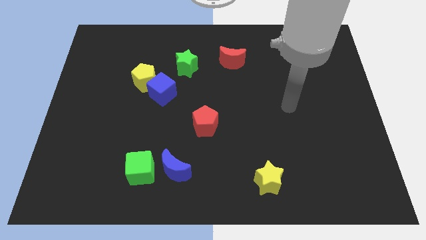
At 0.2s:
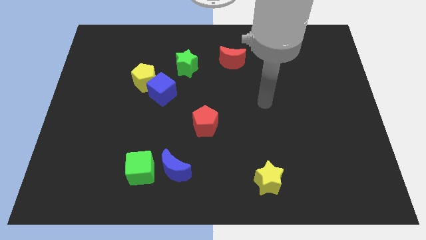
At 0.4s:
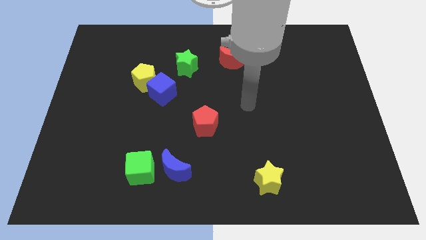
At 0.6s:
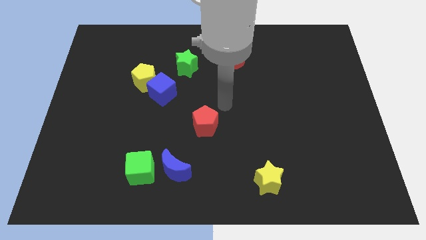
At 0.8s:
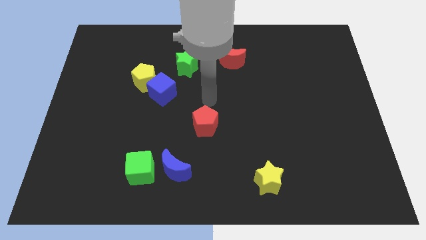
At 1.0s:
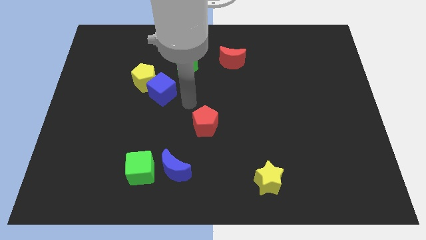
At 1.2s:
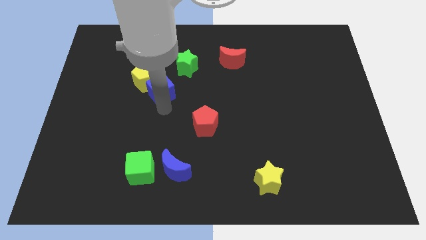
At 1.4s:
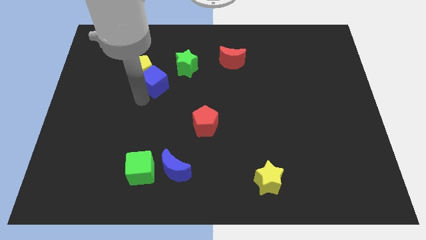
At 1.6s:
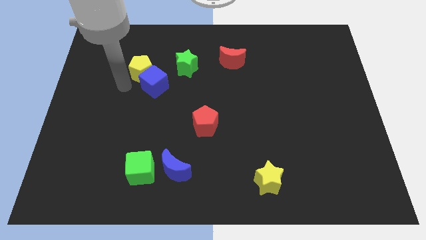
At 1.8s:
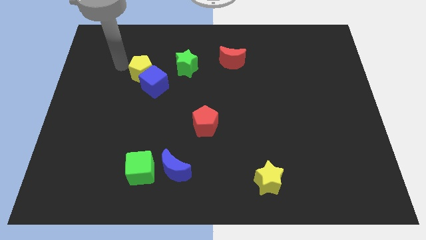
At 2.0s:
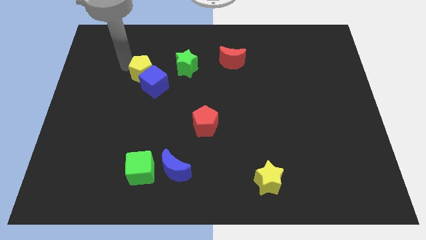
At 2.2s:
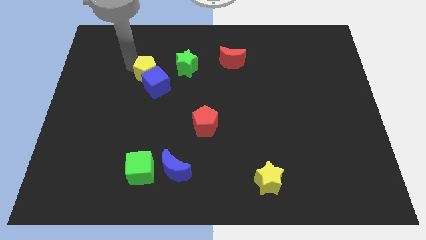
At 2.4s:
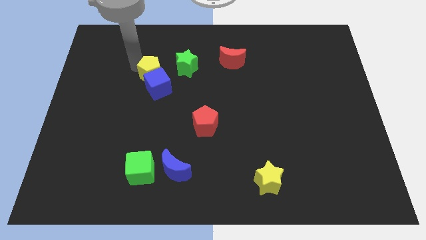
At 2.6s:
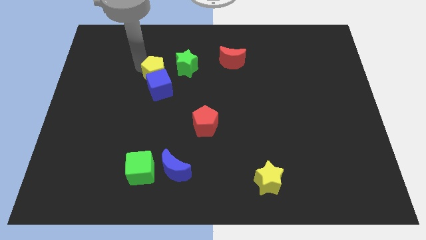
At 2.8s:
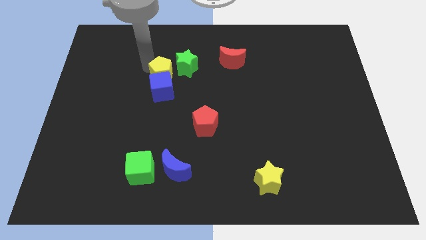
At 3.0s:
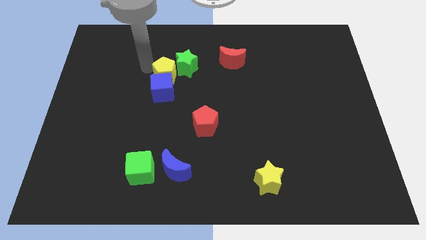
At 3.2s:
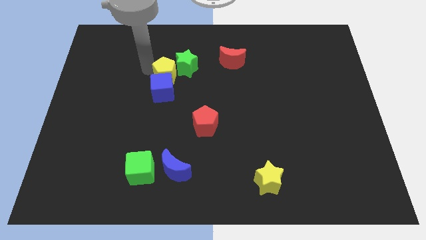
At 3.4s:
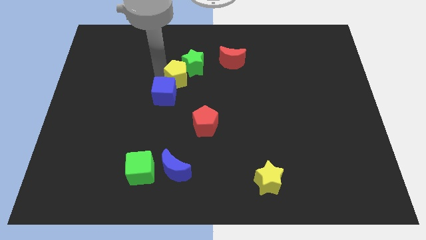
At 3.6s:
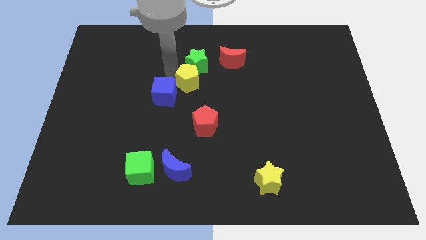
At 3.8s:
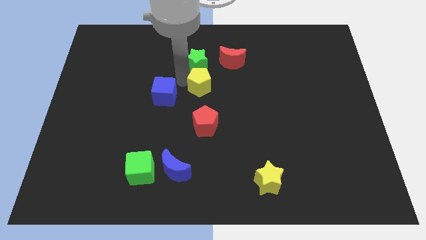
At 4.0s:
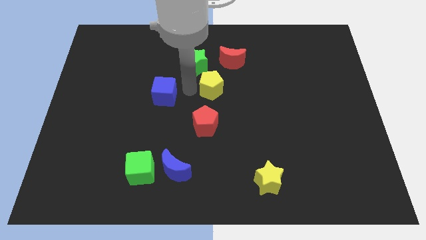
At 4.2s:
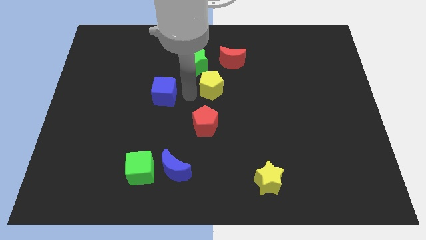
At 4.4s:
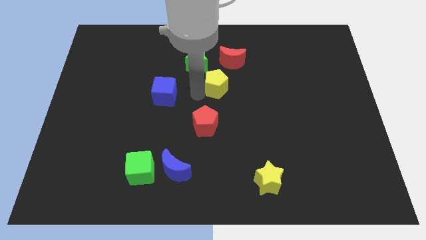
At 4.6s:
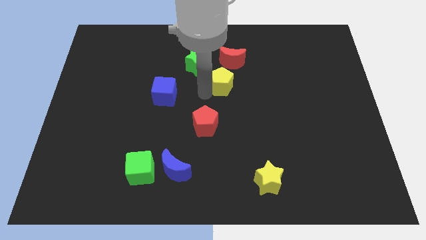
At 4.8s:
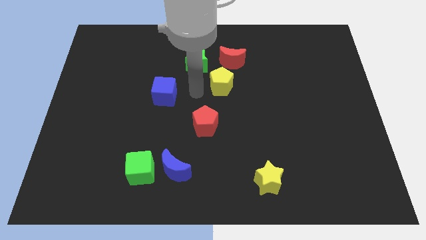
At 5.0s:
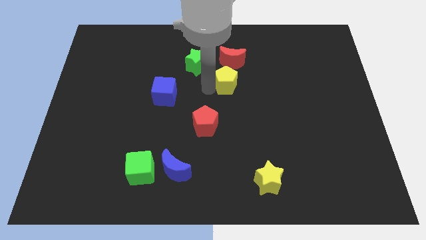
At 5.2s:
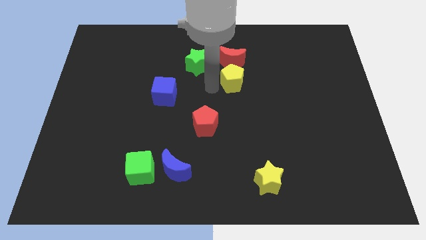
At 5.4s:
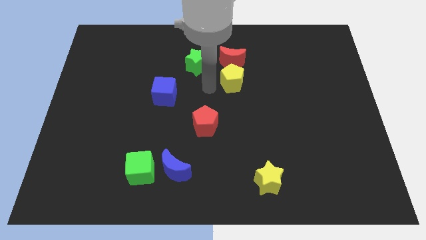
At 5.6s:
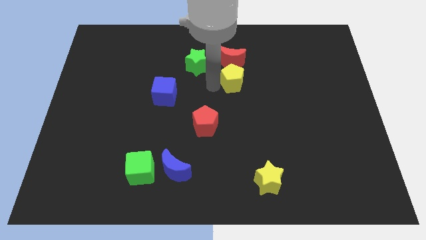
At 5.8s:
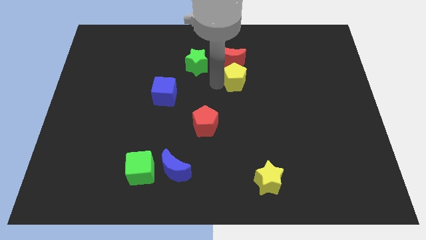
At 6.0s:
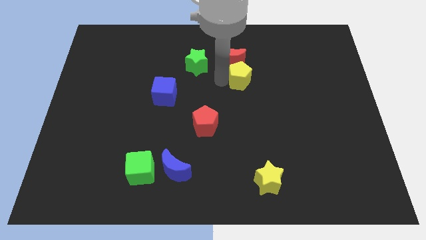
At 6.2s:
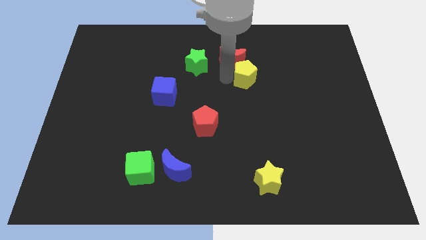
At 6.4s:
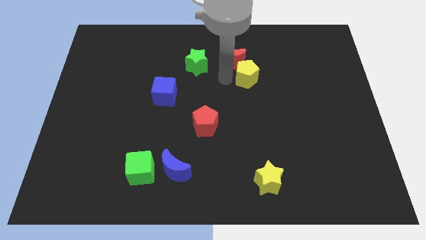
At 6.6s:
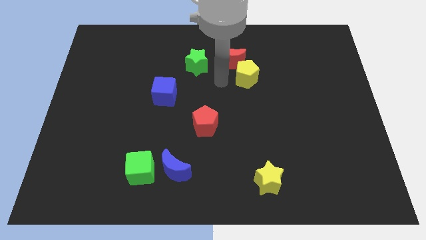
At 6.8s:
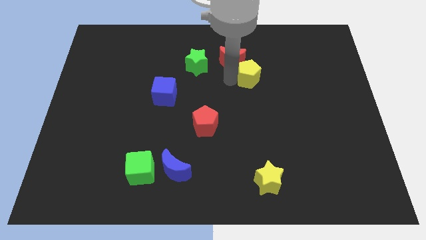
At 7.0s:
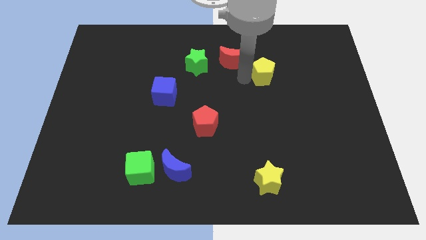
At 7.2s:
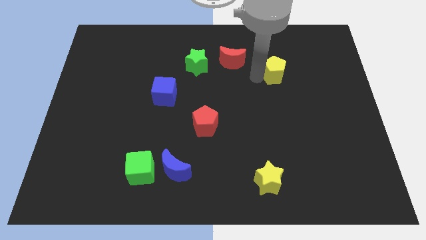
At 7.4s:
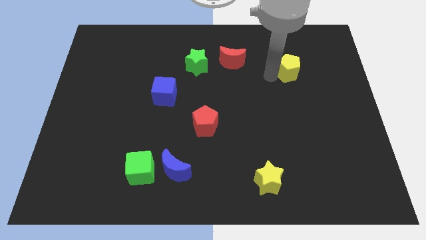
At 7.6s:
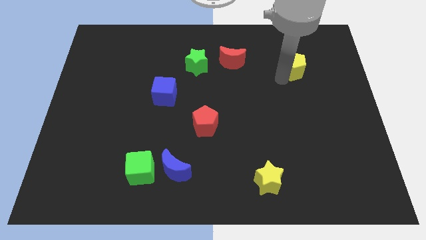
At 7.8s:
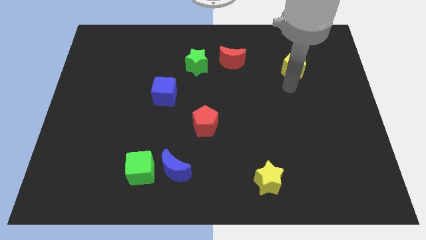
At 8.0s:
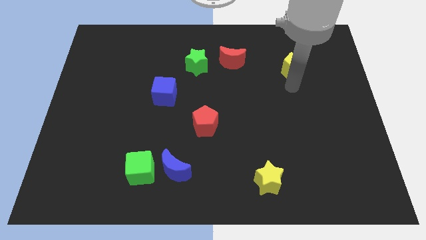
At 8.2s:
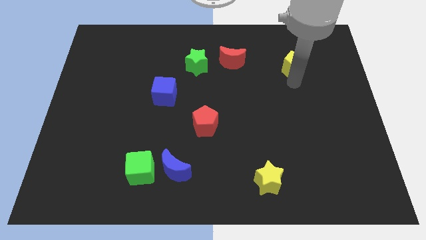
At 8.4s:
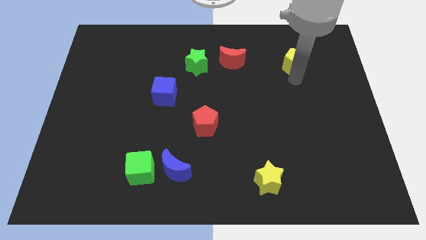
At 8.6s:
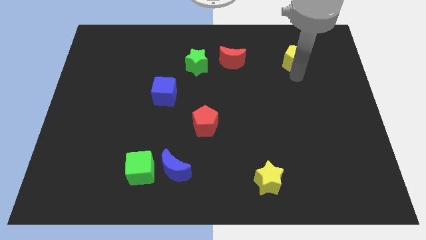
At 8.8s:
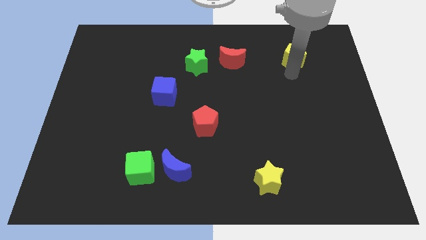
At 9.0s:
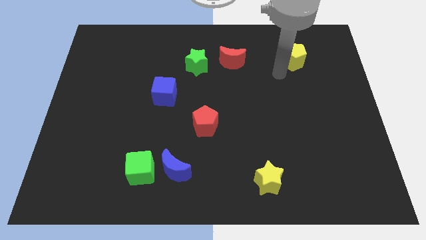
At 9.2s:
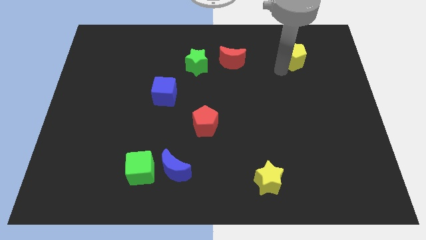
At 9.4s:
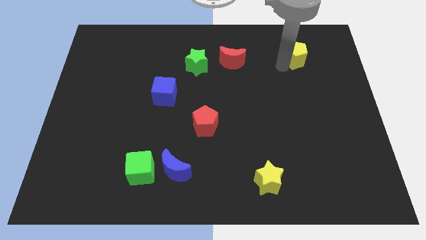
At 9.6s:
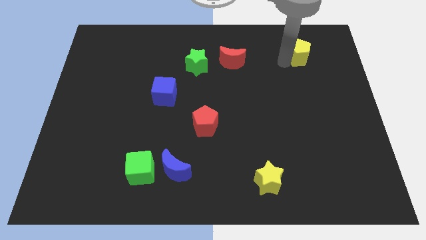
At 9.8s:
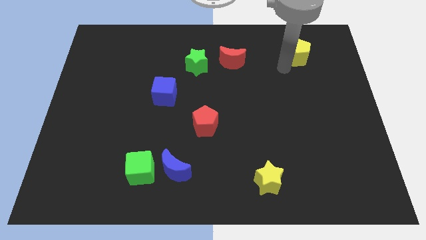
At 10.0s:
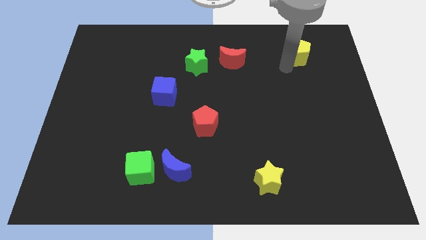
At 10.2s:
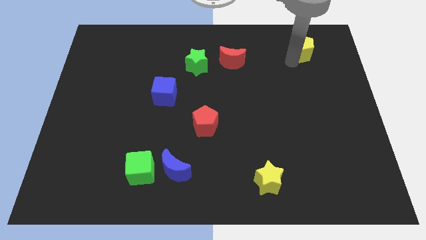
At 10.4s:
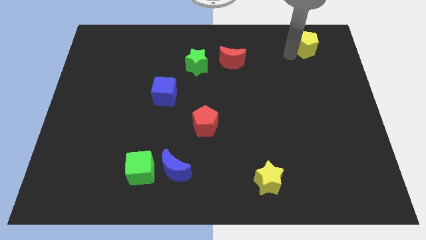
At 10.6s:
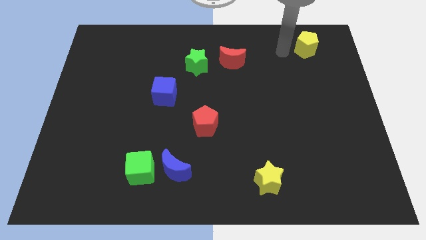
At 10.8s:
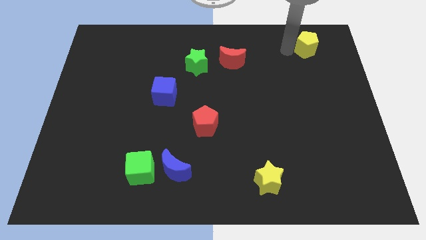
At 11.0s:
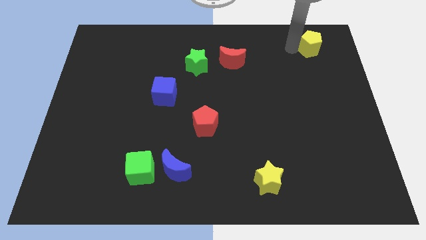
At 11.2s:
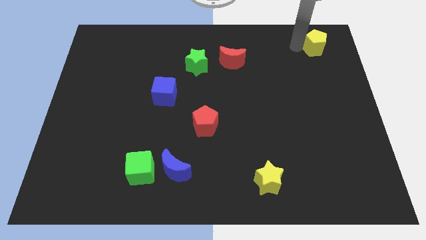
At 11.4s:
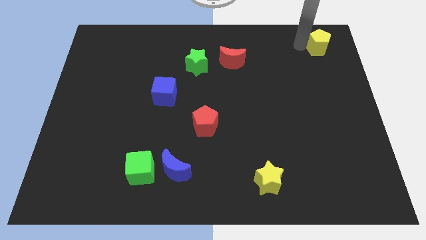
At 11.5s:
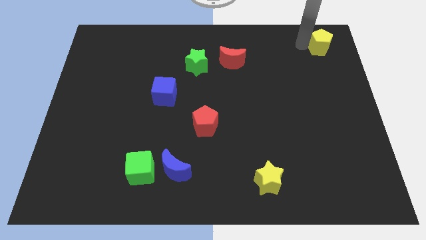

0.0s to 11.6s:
slide the yellow pentagon to the upper right corner
